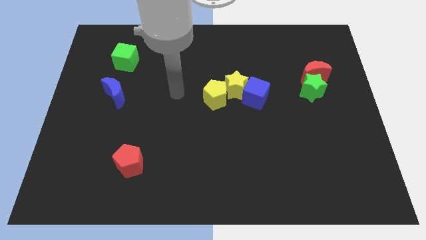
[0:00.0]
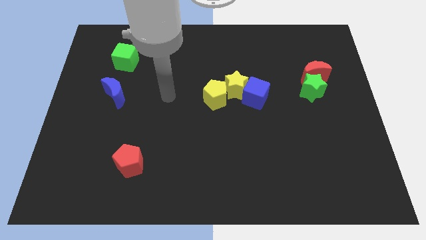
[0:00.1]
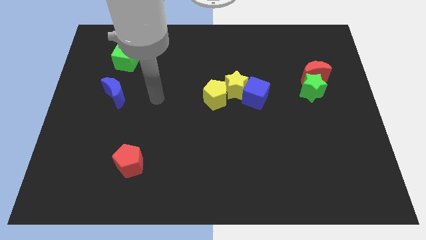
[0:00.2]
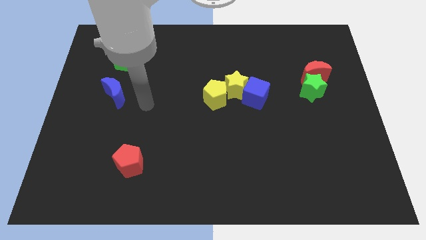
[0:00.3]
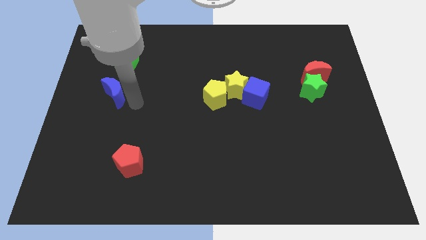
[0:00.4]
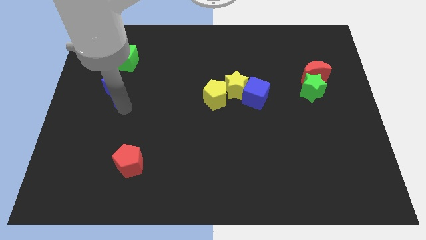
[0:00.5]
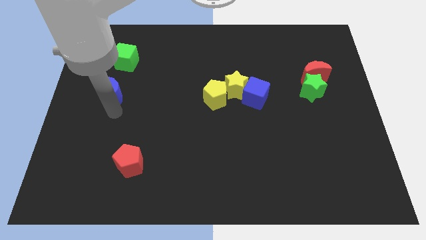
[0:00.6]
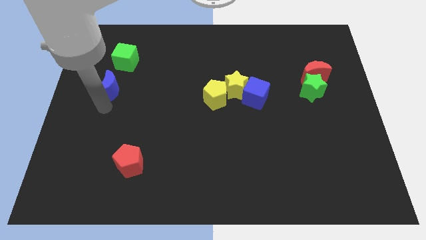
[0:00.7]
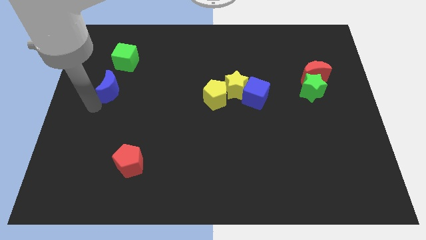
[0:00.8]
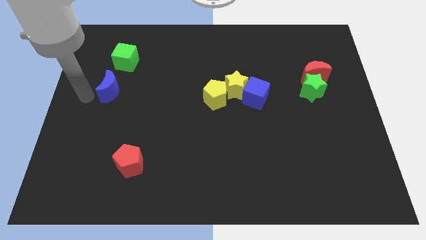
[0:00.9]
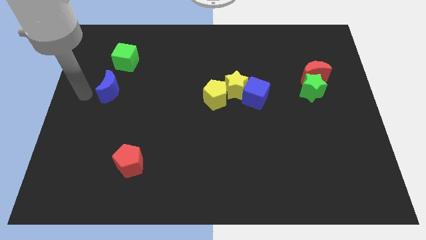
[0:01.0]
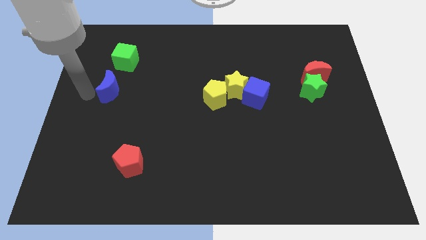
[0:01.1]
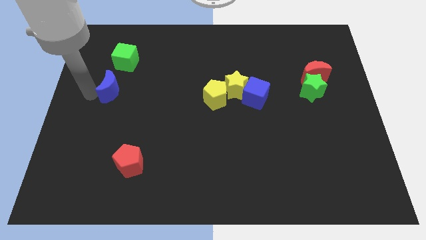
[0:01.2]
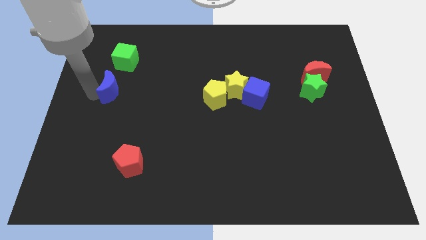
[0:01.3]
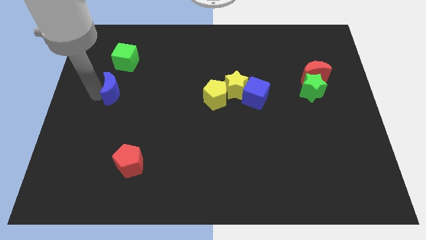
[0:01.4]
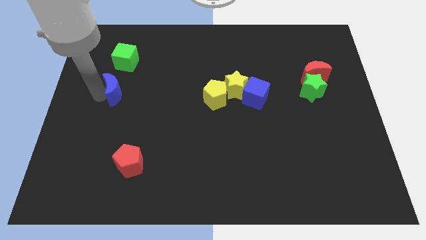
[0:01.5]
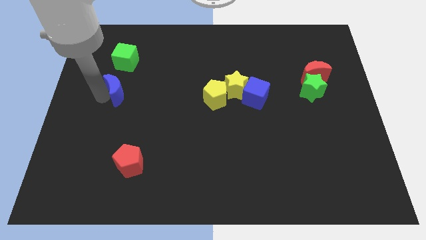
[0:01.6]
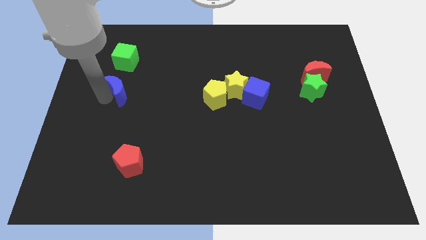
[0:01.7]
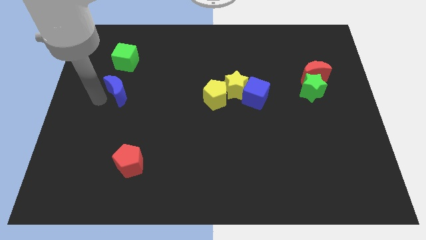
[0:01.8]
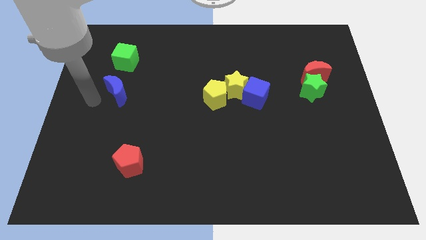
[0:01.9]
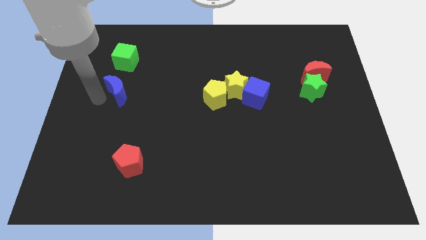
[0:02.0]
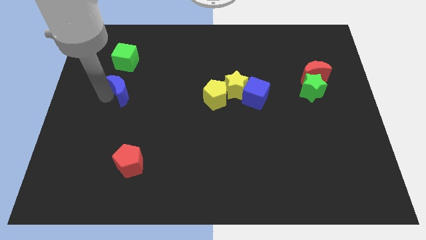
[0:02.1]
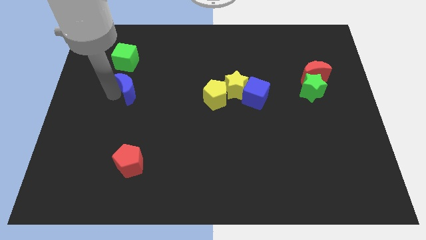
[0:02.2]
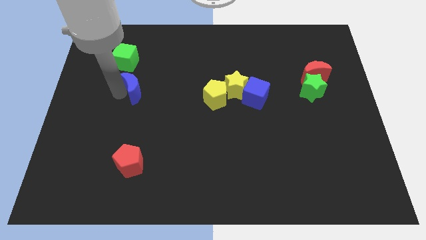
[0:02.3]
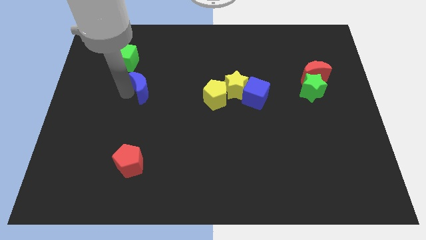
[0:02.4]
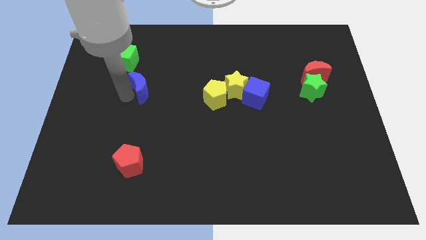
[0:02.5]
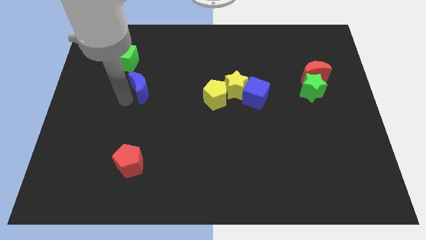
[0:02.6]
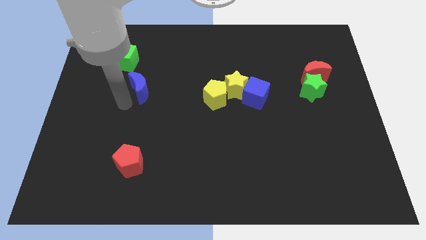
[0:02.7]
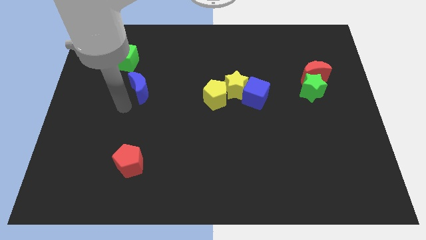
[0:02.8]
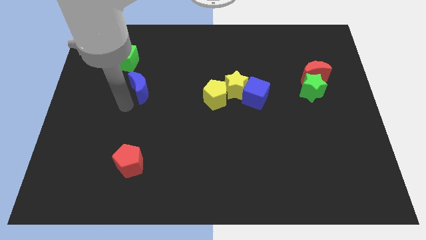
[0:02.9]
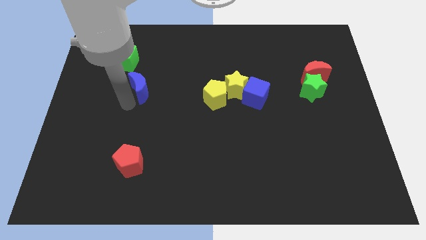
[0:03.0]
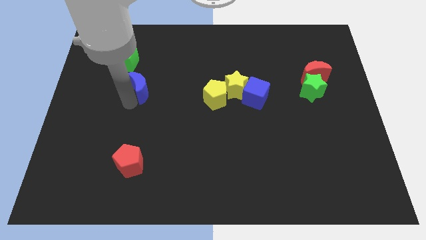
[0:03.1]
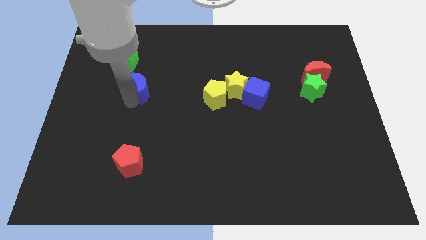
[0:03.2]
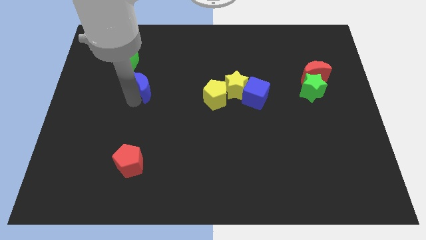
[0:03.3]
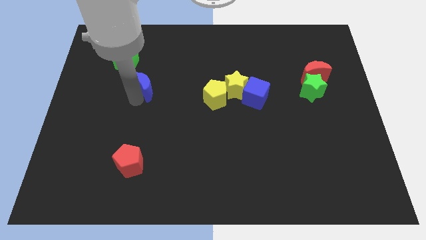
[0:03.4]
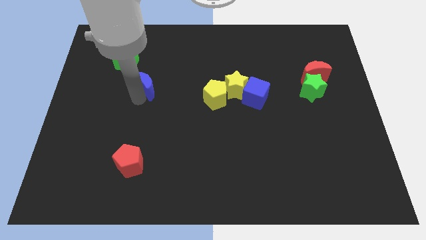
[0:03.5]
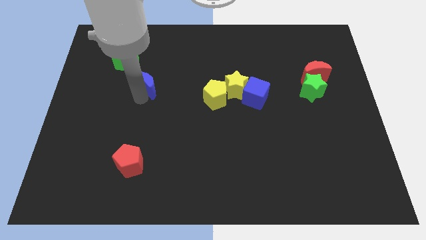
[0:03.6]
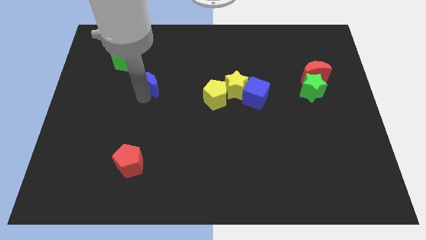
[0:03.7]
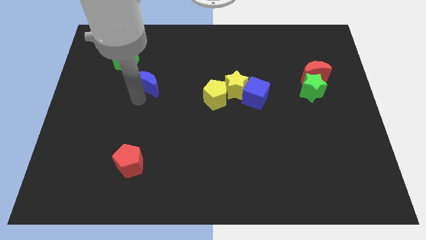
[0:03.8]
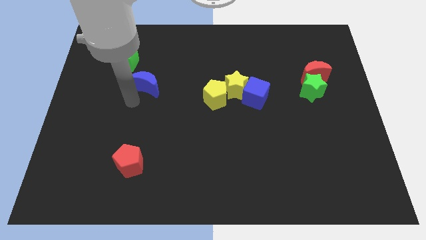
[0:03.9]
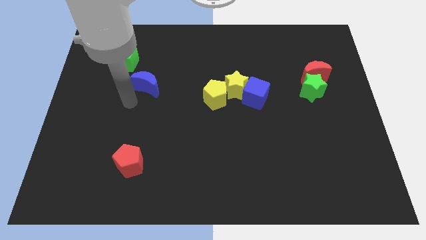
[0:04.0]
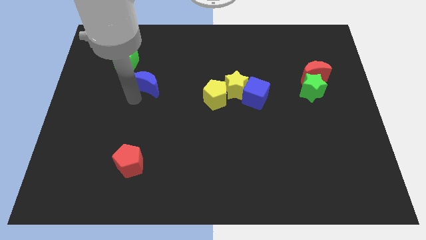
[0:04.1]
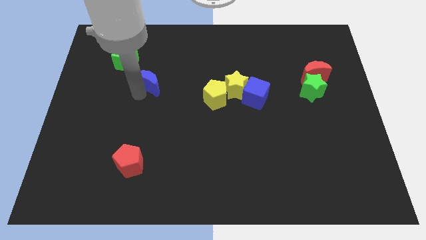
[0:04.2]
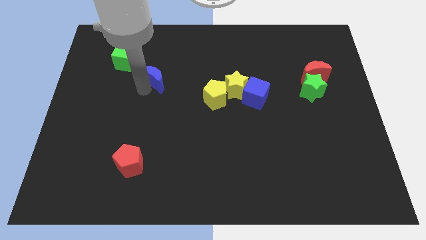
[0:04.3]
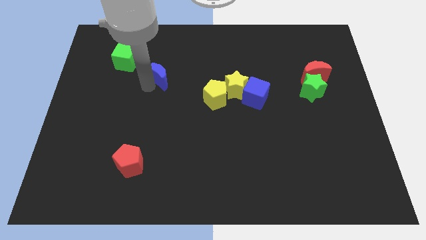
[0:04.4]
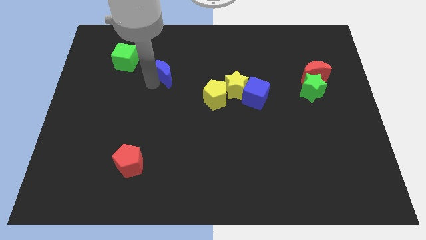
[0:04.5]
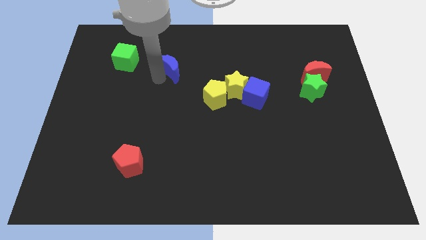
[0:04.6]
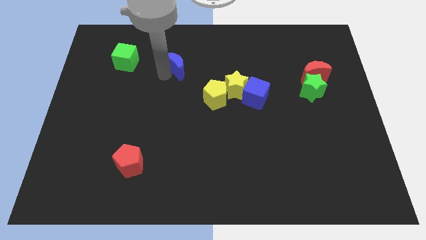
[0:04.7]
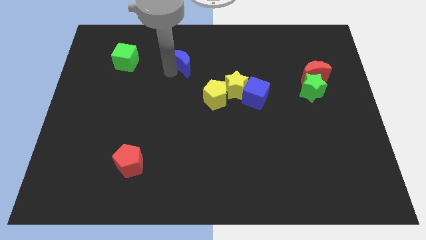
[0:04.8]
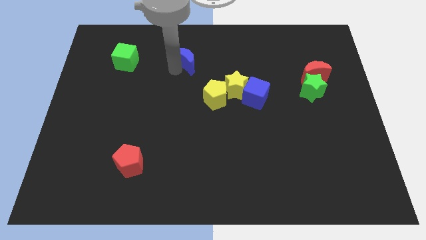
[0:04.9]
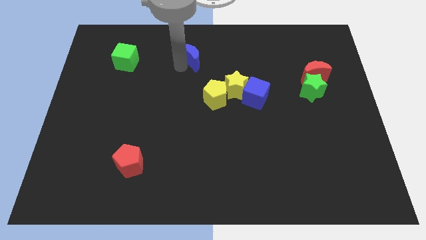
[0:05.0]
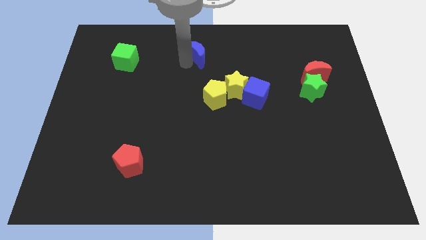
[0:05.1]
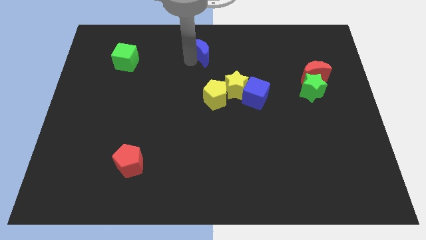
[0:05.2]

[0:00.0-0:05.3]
put the blue moon to the top side

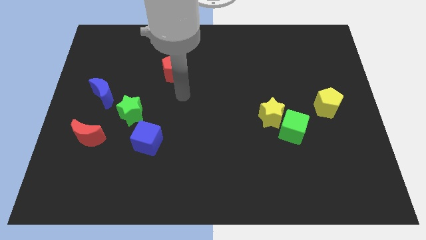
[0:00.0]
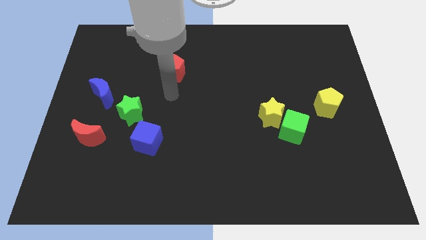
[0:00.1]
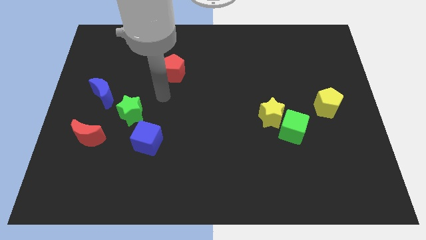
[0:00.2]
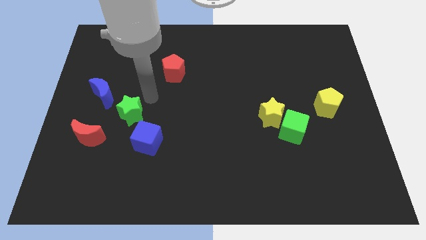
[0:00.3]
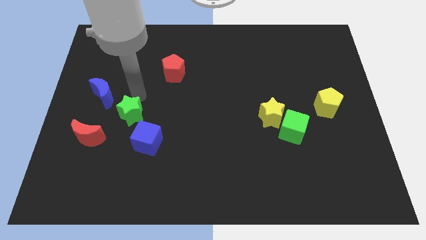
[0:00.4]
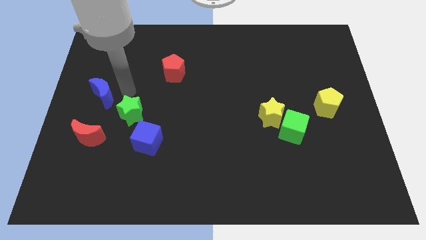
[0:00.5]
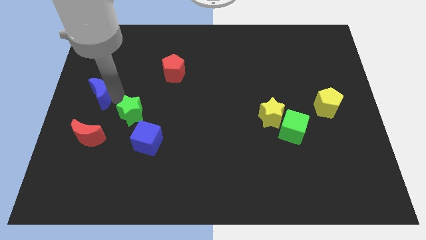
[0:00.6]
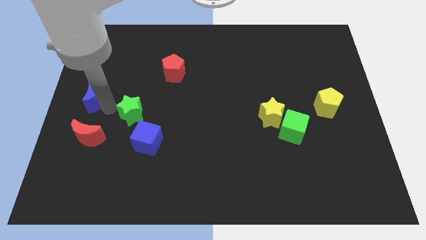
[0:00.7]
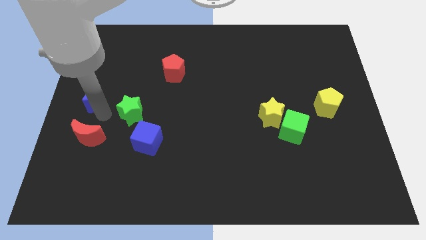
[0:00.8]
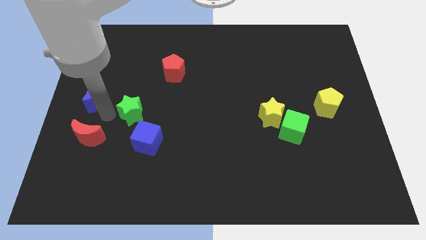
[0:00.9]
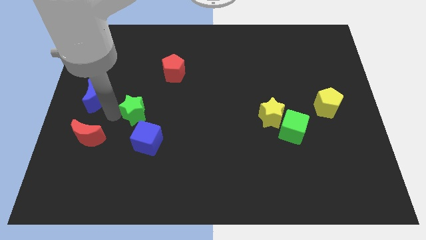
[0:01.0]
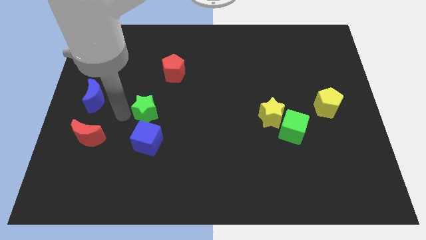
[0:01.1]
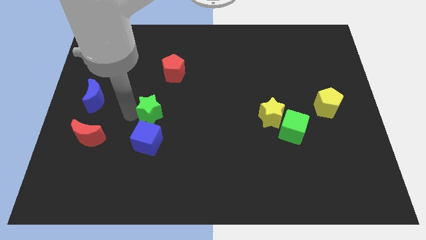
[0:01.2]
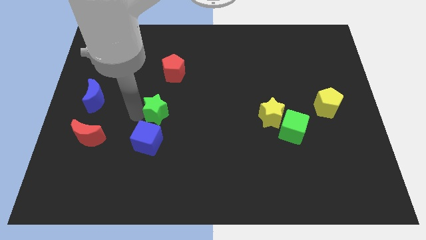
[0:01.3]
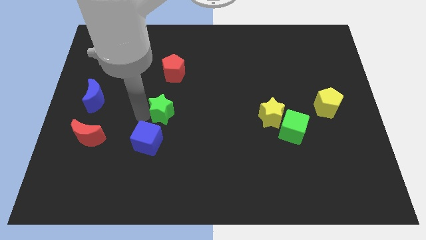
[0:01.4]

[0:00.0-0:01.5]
push the green star to the center
